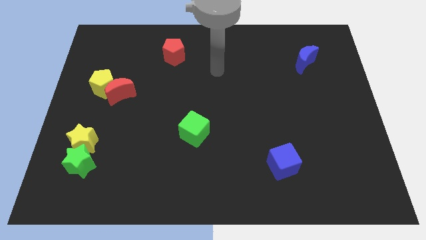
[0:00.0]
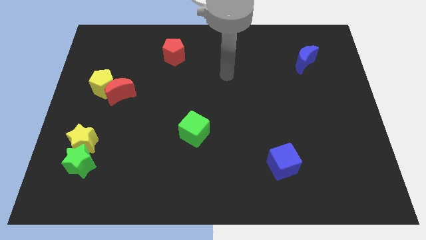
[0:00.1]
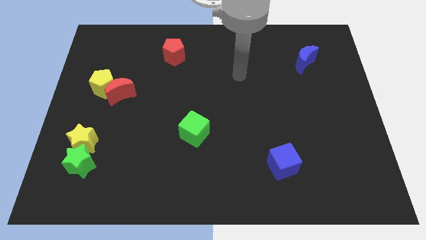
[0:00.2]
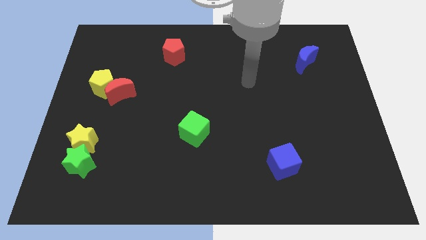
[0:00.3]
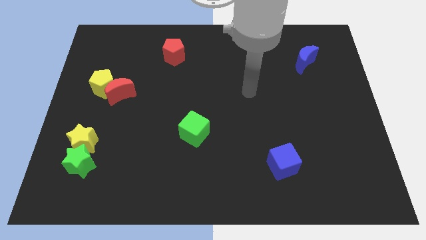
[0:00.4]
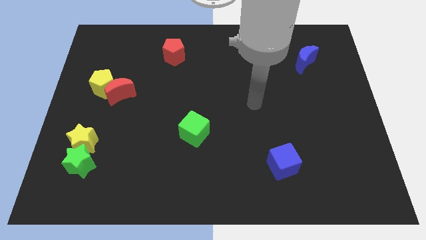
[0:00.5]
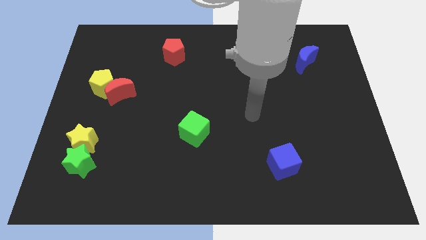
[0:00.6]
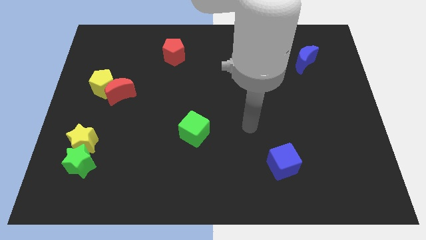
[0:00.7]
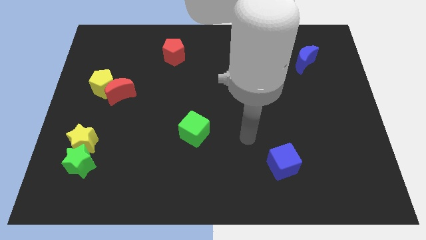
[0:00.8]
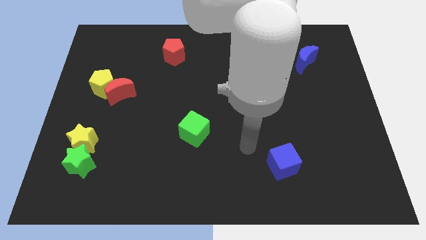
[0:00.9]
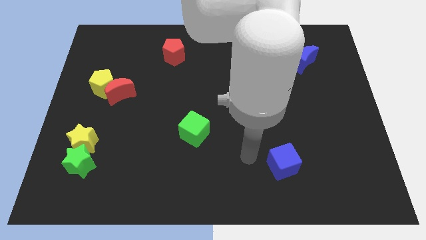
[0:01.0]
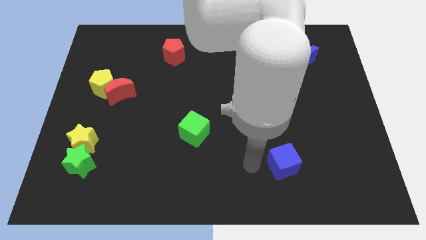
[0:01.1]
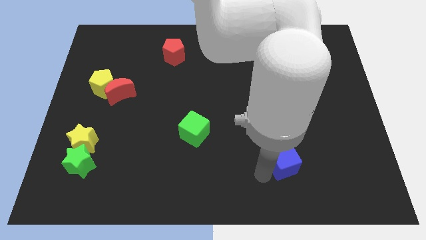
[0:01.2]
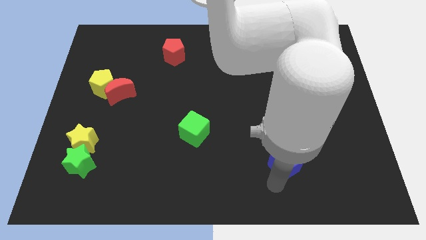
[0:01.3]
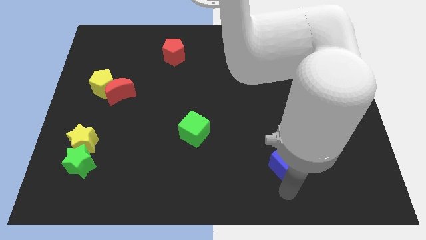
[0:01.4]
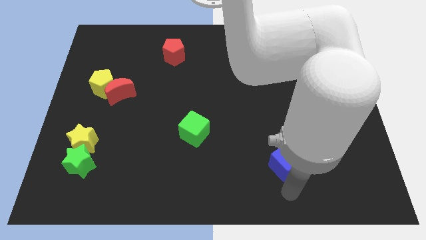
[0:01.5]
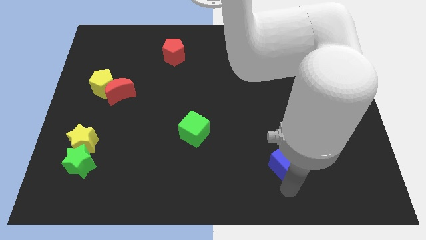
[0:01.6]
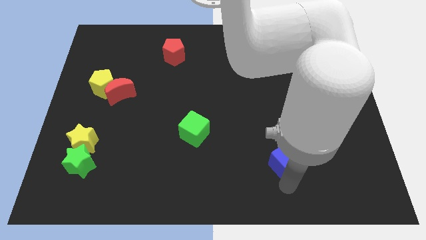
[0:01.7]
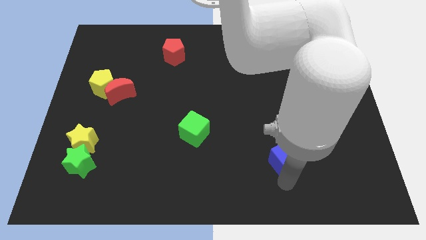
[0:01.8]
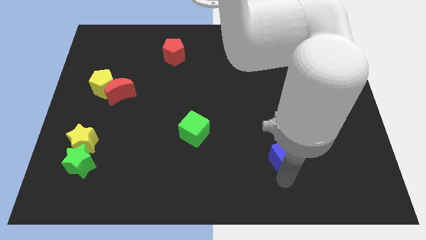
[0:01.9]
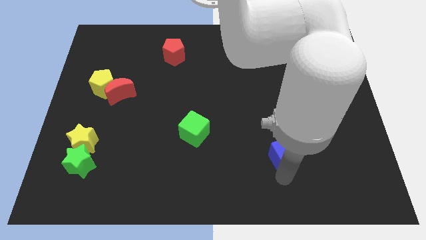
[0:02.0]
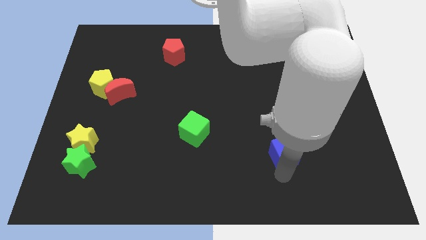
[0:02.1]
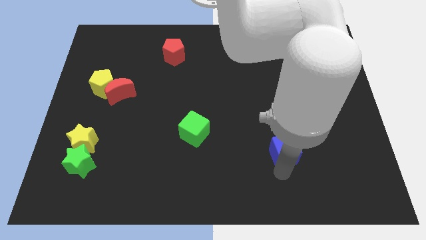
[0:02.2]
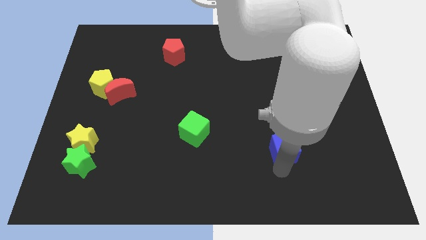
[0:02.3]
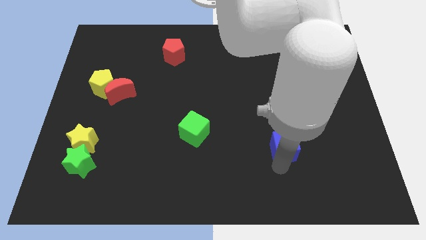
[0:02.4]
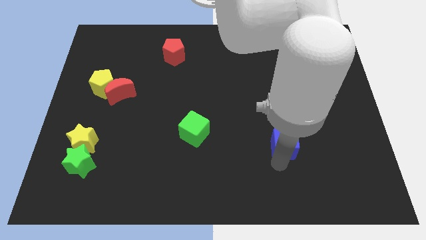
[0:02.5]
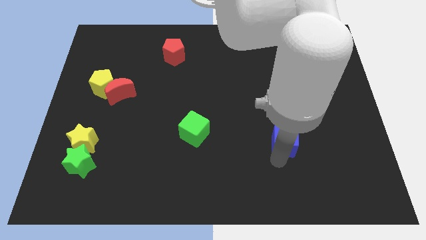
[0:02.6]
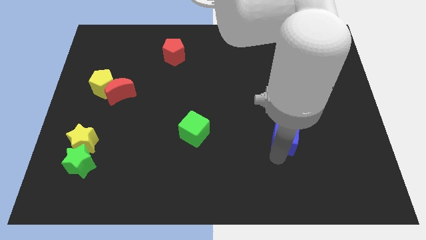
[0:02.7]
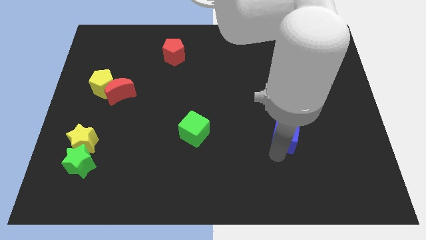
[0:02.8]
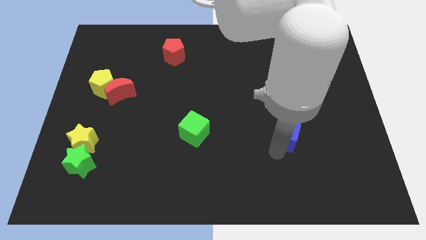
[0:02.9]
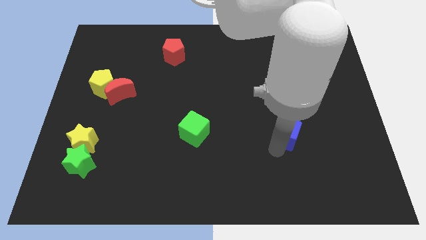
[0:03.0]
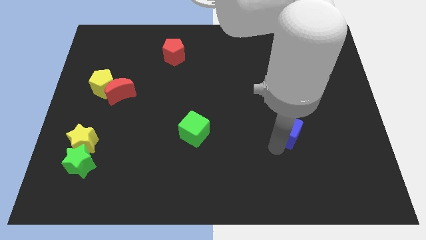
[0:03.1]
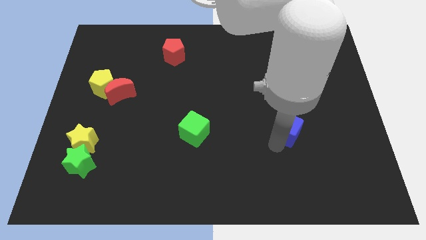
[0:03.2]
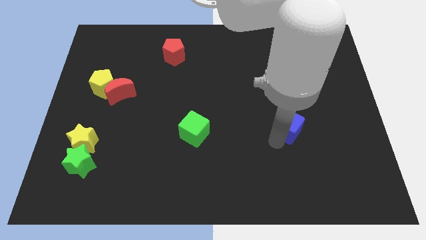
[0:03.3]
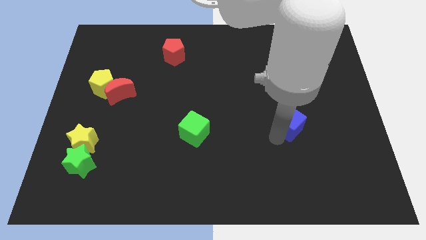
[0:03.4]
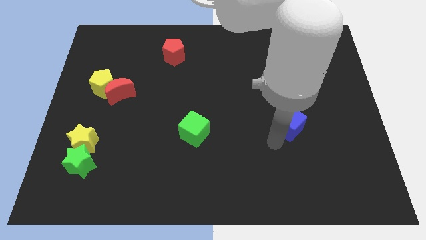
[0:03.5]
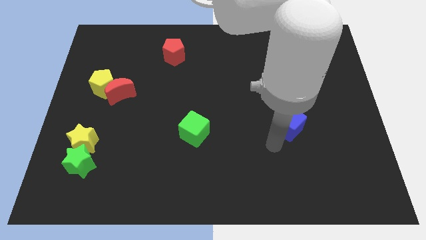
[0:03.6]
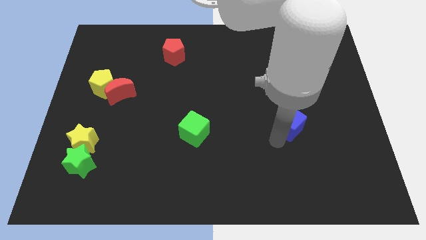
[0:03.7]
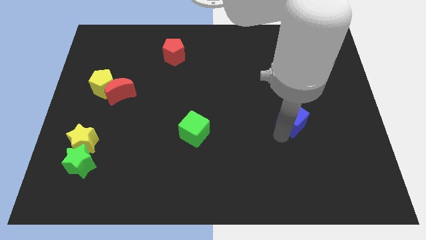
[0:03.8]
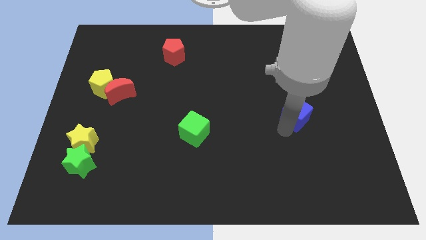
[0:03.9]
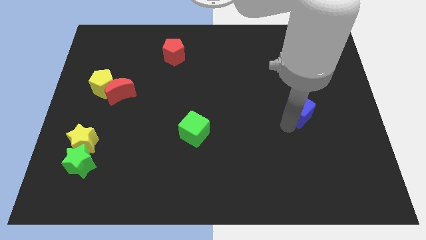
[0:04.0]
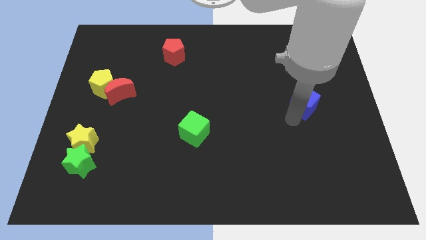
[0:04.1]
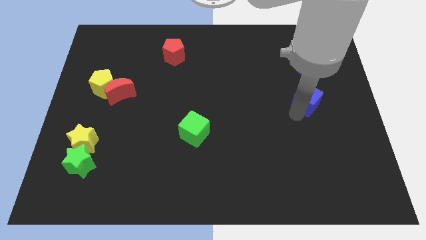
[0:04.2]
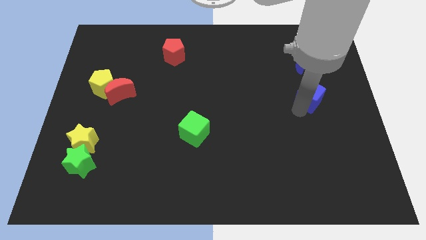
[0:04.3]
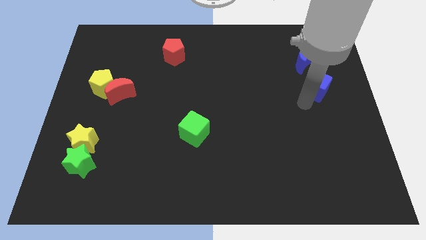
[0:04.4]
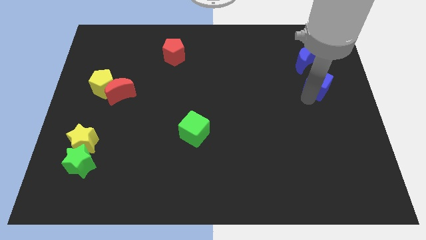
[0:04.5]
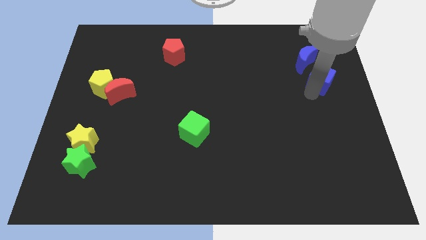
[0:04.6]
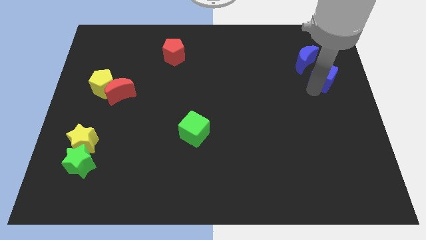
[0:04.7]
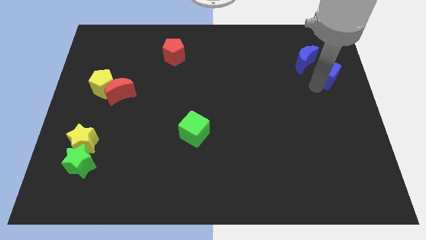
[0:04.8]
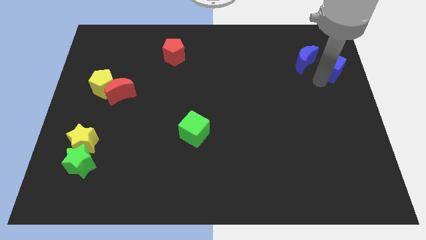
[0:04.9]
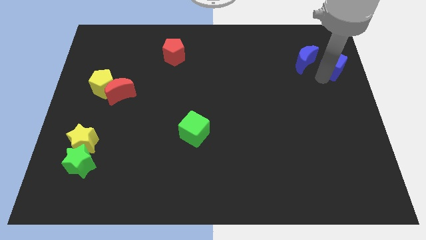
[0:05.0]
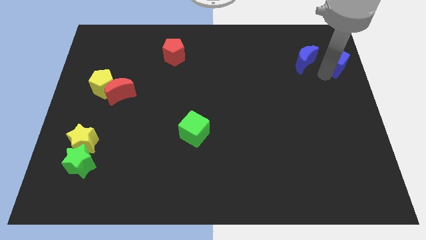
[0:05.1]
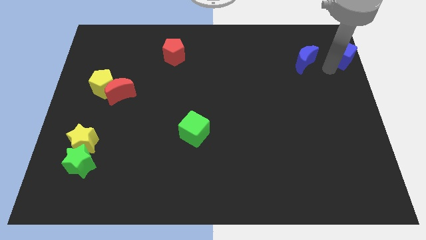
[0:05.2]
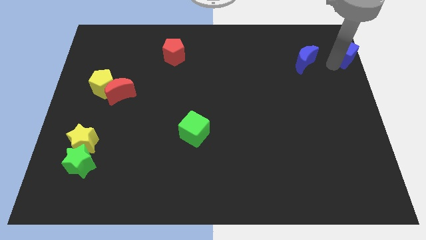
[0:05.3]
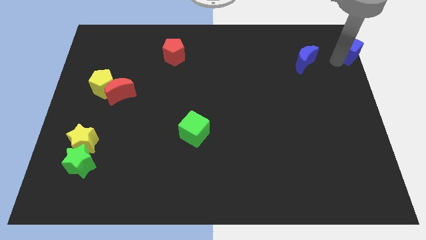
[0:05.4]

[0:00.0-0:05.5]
slide the blue cube to the top right corner
